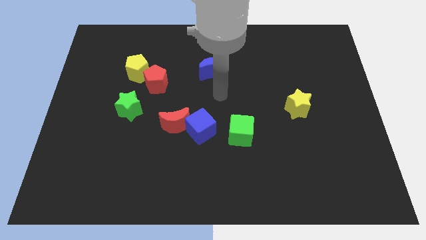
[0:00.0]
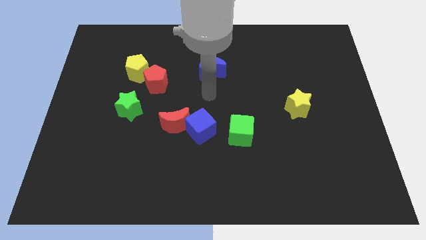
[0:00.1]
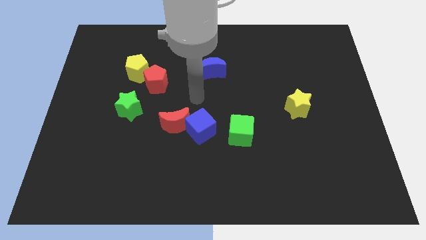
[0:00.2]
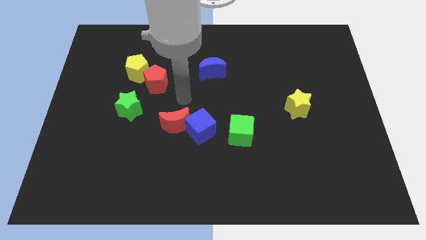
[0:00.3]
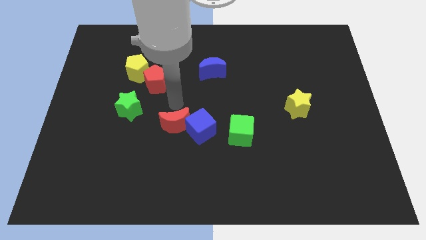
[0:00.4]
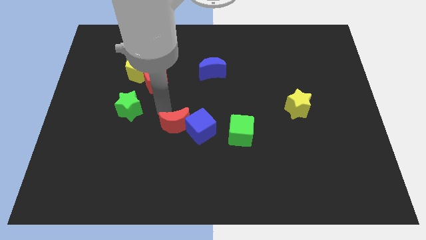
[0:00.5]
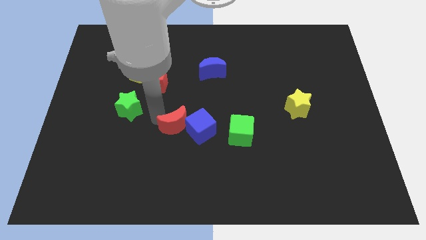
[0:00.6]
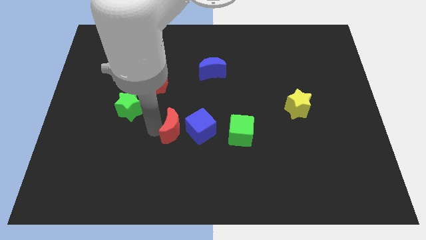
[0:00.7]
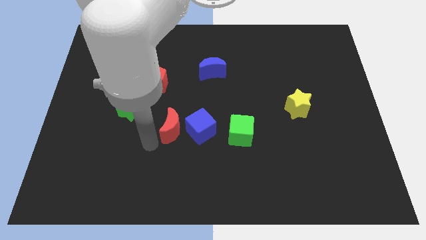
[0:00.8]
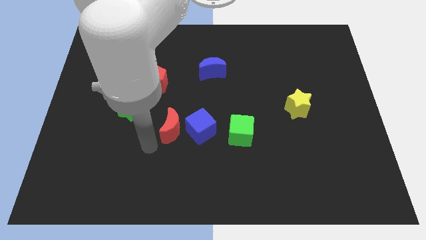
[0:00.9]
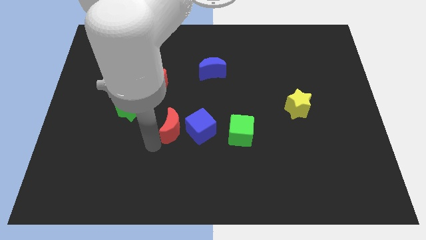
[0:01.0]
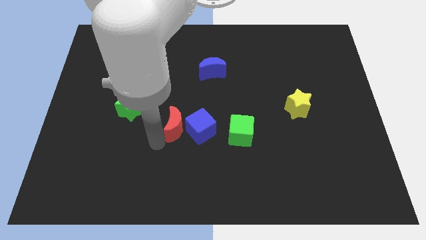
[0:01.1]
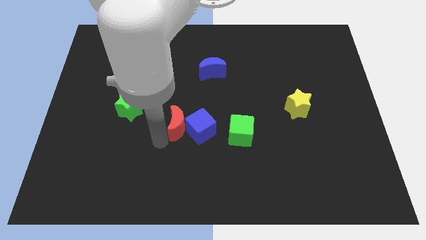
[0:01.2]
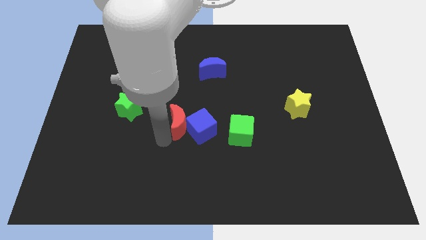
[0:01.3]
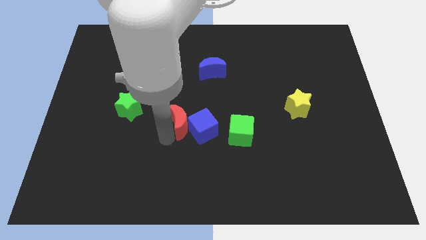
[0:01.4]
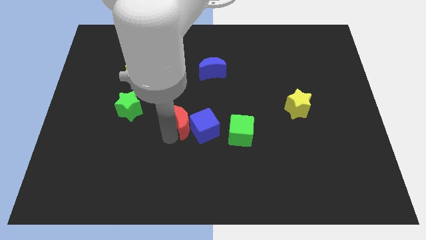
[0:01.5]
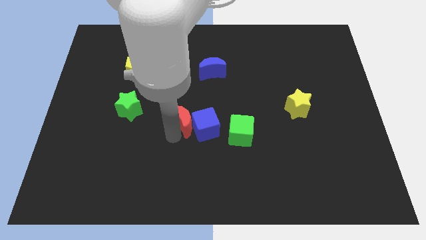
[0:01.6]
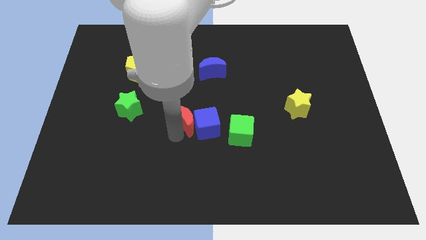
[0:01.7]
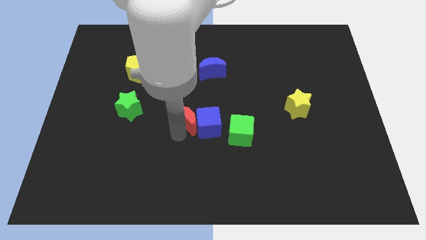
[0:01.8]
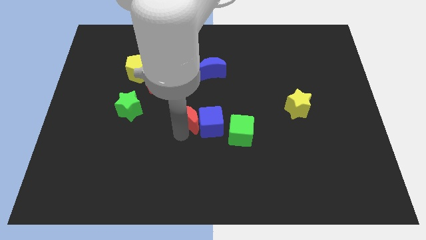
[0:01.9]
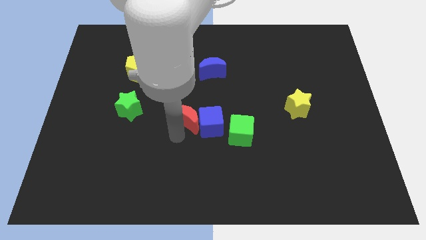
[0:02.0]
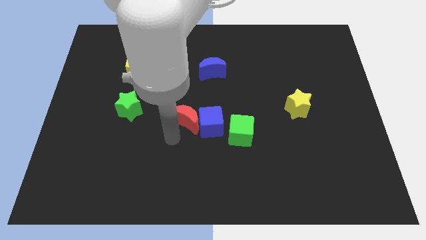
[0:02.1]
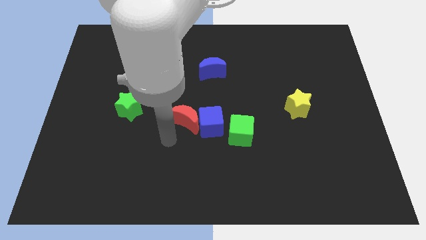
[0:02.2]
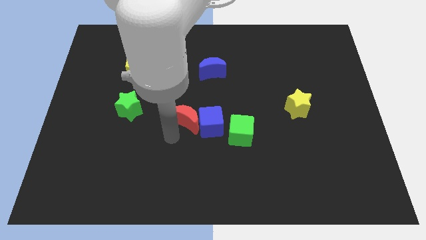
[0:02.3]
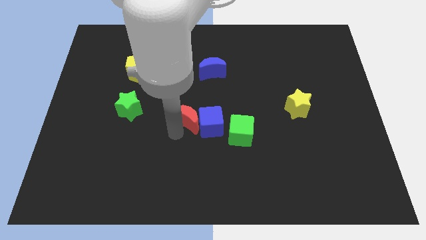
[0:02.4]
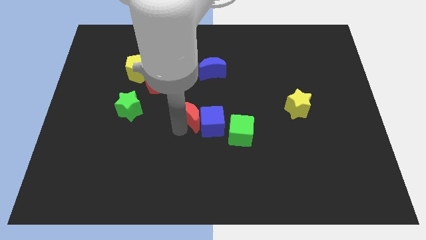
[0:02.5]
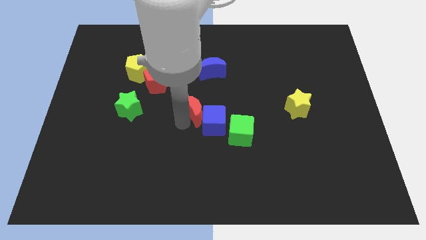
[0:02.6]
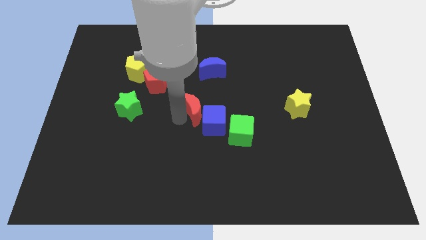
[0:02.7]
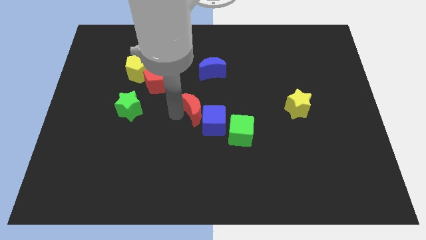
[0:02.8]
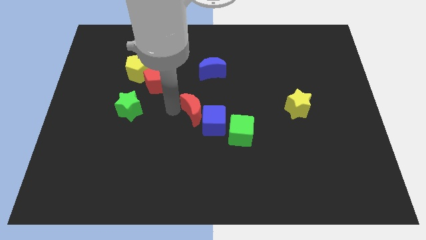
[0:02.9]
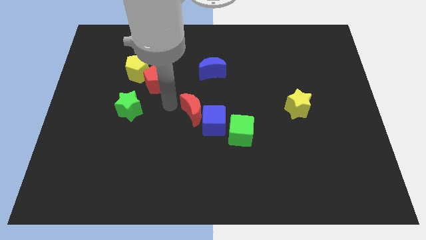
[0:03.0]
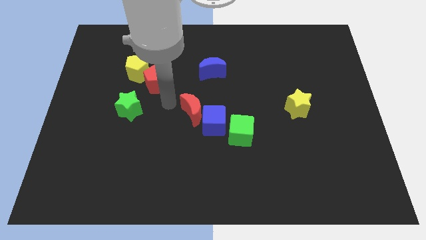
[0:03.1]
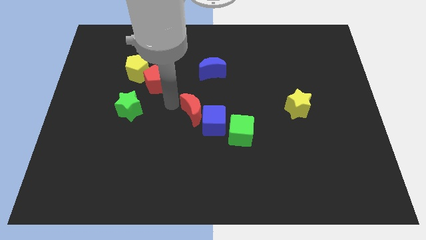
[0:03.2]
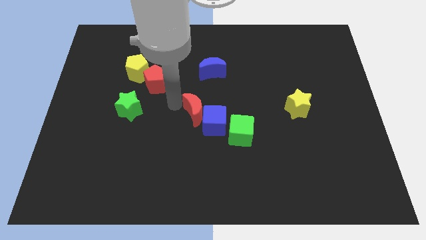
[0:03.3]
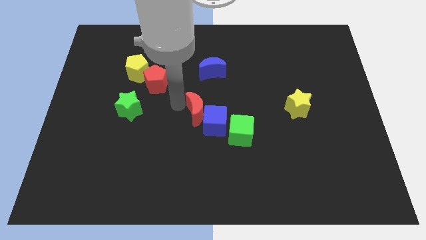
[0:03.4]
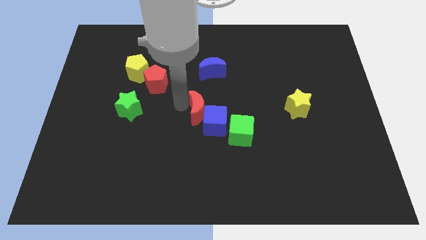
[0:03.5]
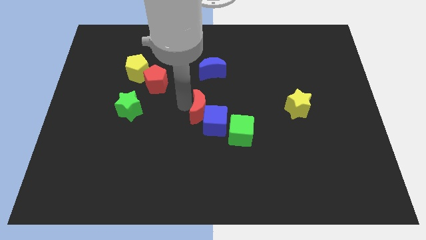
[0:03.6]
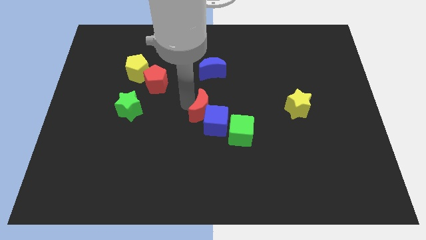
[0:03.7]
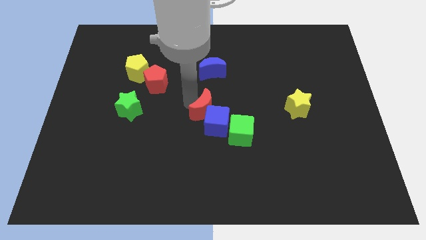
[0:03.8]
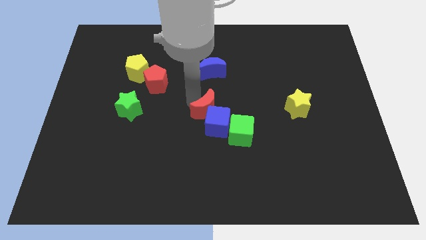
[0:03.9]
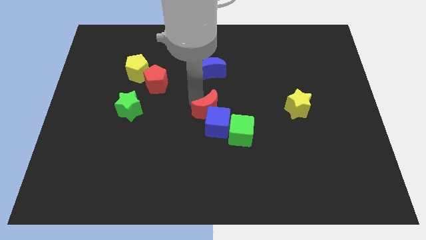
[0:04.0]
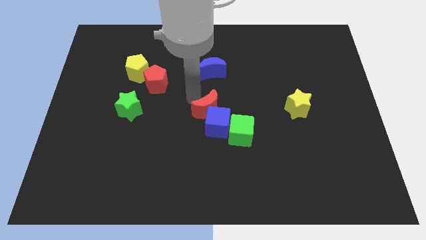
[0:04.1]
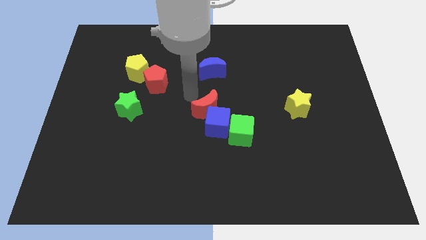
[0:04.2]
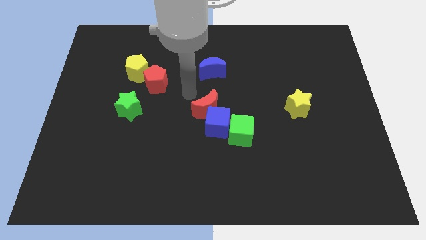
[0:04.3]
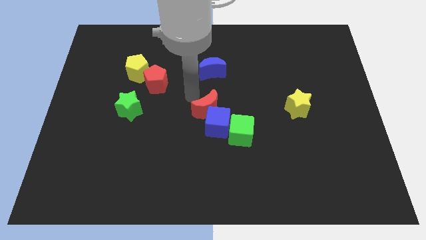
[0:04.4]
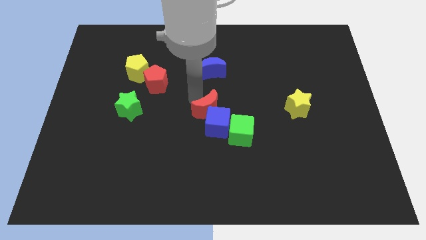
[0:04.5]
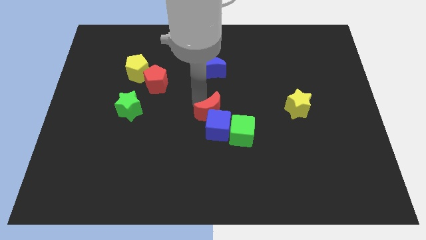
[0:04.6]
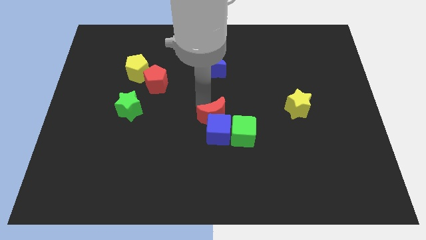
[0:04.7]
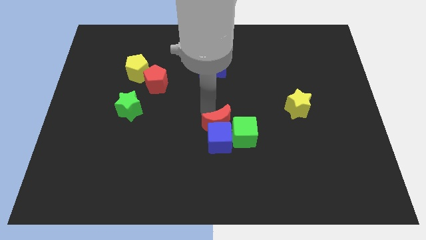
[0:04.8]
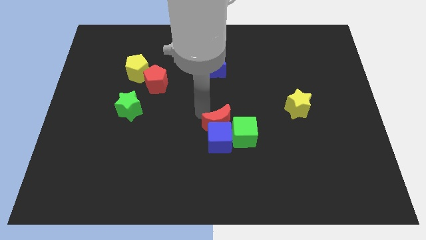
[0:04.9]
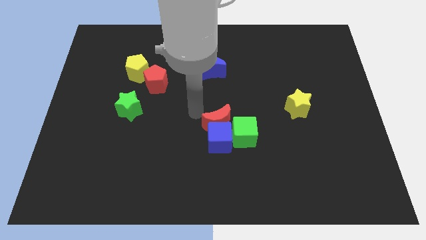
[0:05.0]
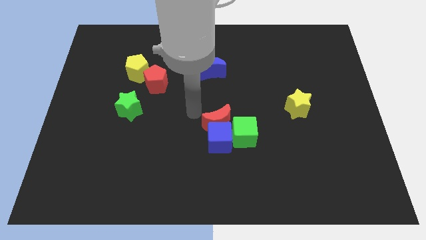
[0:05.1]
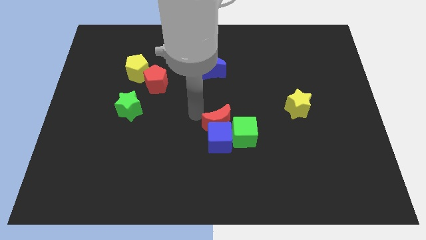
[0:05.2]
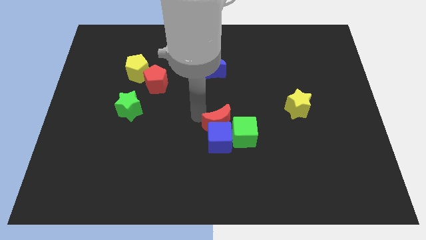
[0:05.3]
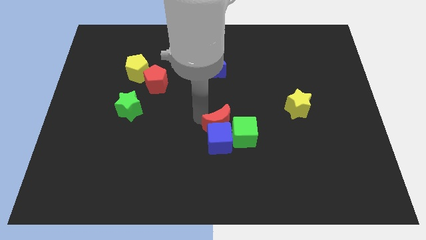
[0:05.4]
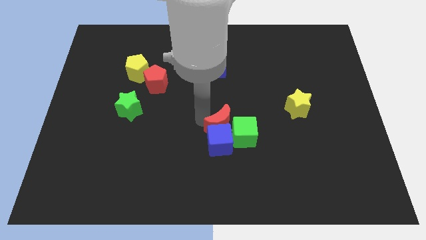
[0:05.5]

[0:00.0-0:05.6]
push the red moon towards the green cube

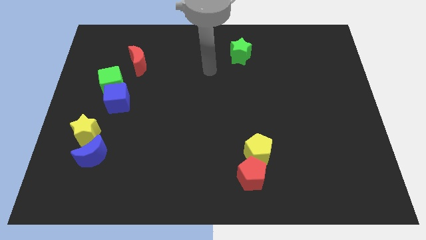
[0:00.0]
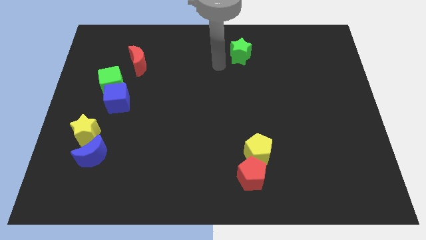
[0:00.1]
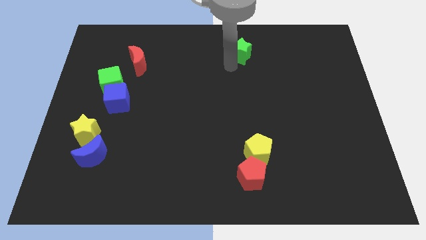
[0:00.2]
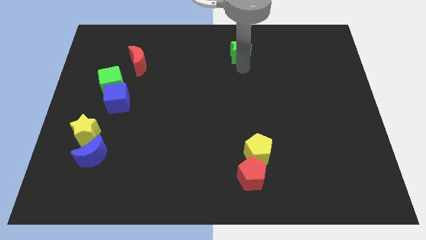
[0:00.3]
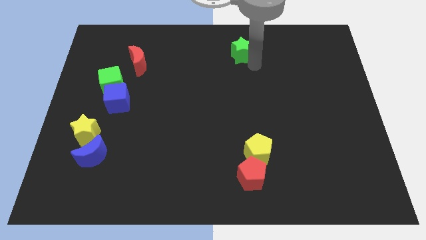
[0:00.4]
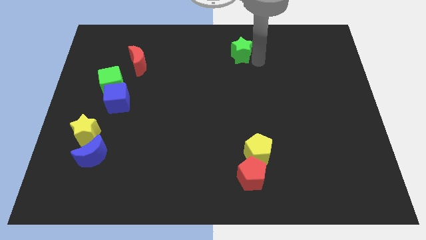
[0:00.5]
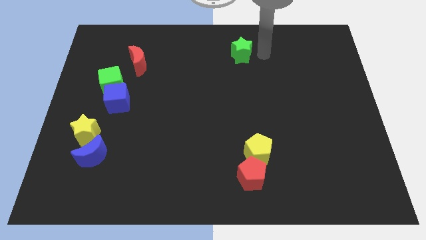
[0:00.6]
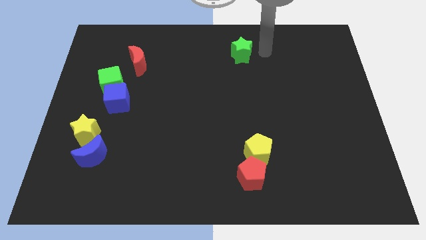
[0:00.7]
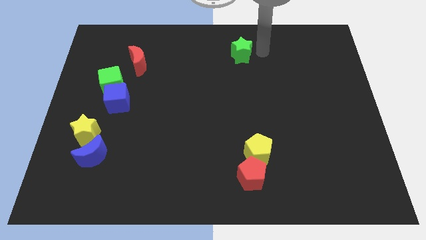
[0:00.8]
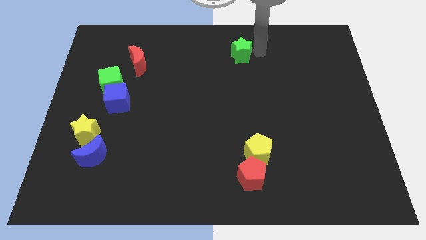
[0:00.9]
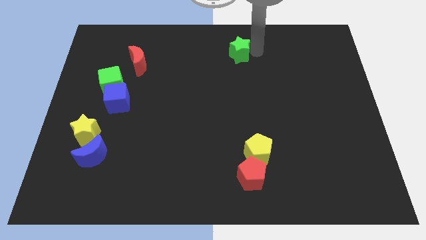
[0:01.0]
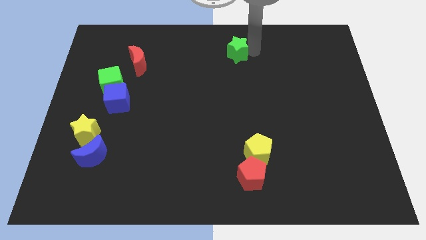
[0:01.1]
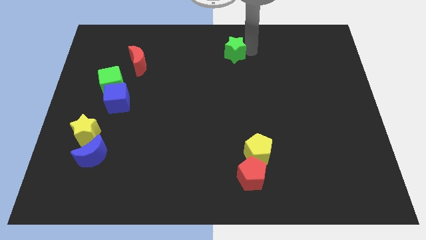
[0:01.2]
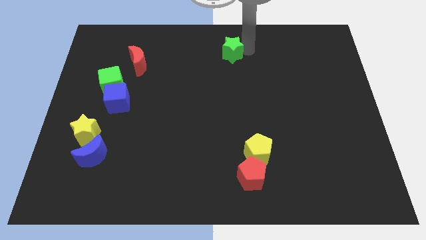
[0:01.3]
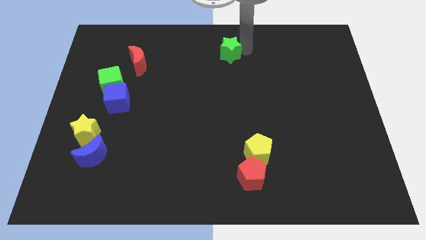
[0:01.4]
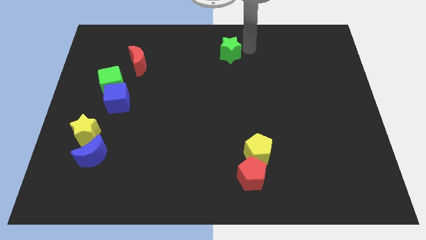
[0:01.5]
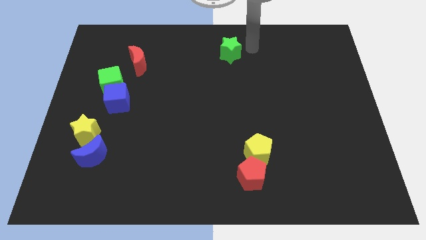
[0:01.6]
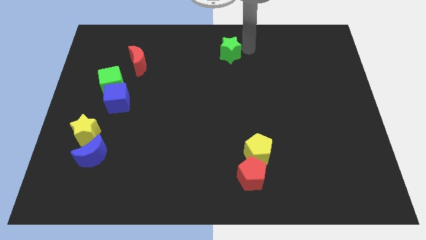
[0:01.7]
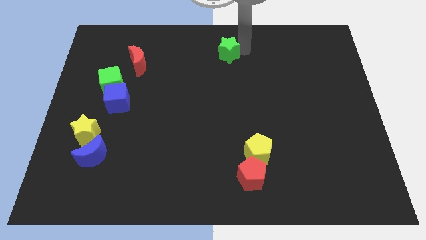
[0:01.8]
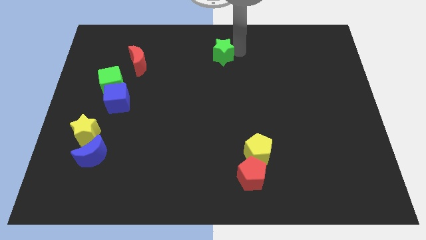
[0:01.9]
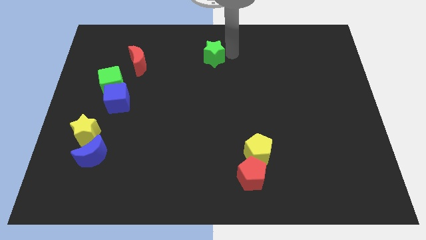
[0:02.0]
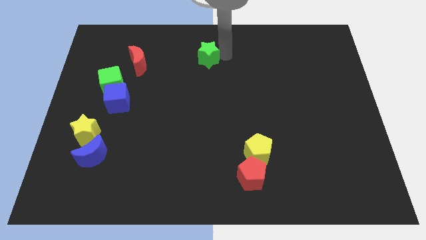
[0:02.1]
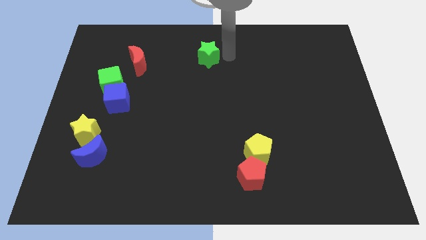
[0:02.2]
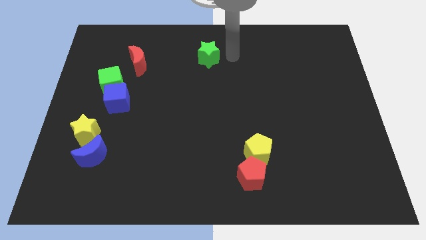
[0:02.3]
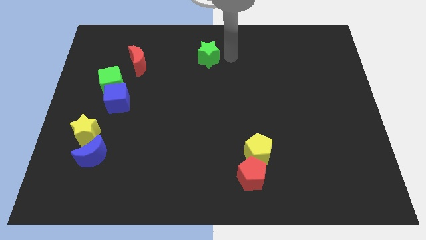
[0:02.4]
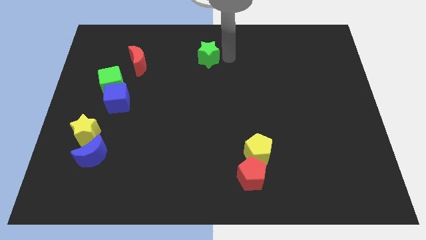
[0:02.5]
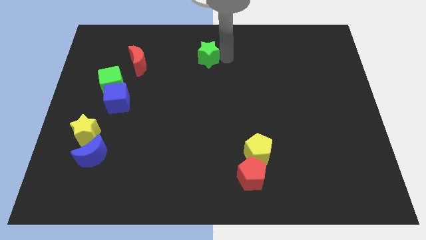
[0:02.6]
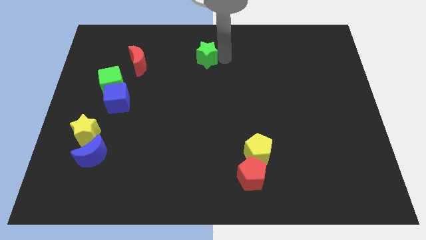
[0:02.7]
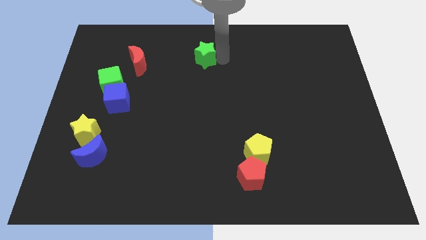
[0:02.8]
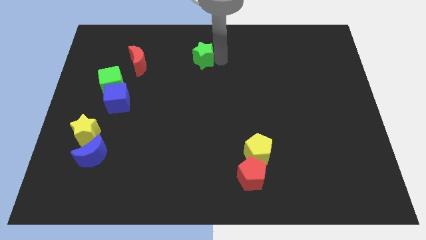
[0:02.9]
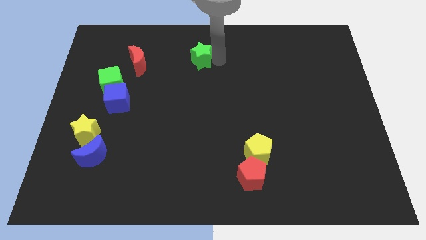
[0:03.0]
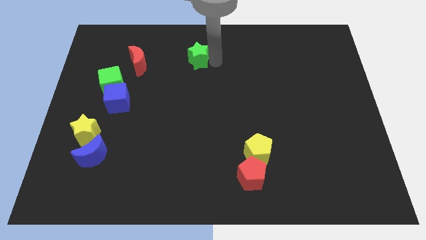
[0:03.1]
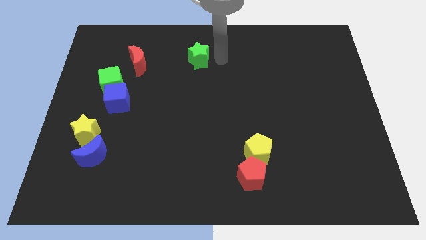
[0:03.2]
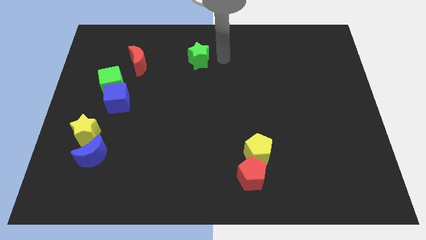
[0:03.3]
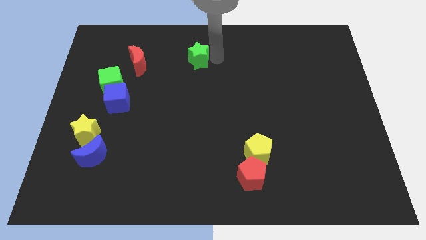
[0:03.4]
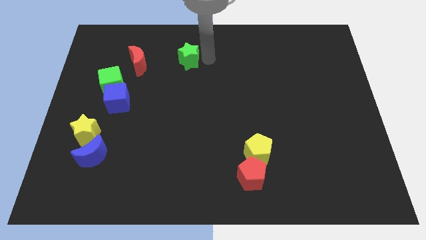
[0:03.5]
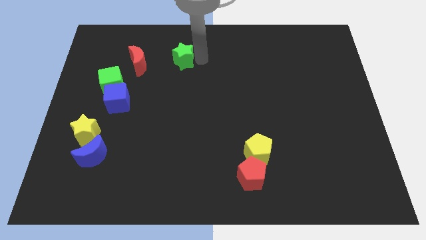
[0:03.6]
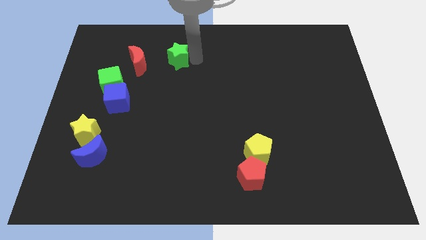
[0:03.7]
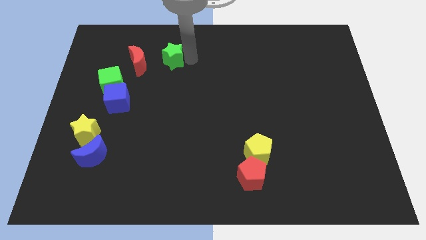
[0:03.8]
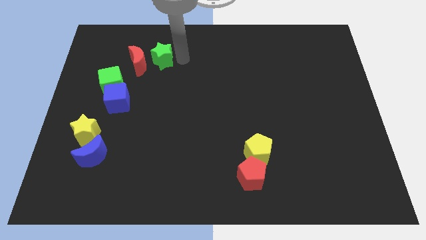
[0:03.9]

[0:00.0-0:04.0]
put the green star close to the red moon
